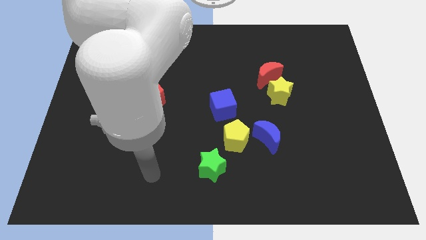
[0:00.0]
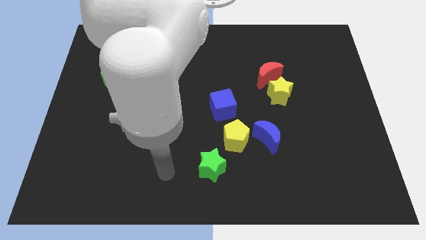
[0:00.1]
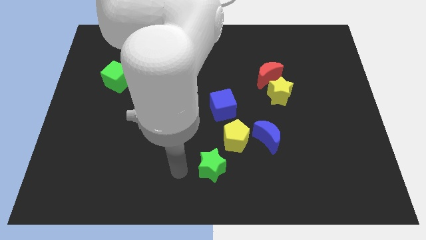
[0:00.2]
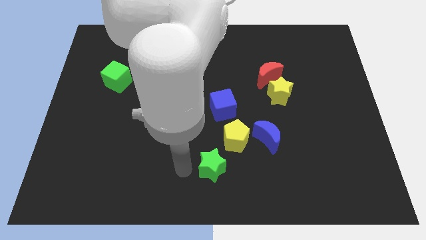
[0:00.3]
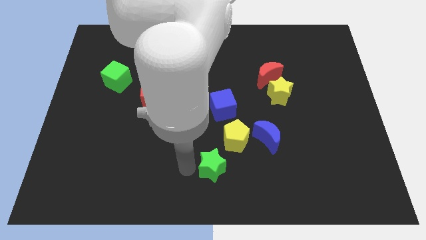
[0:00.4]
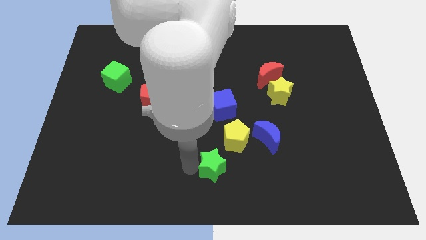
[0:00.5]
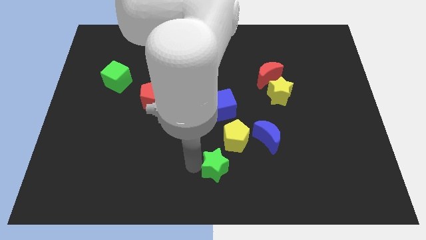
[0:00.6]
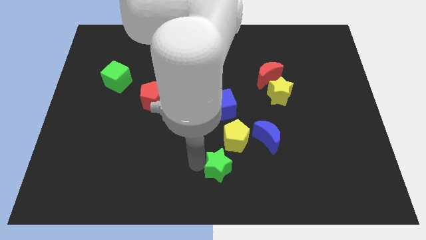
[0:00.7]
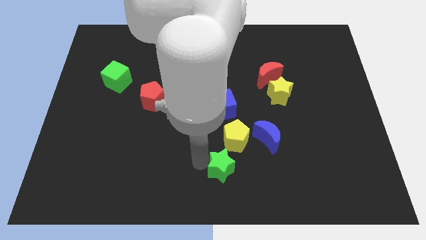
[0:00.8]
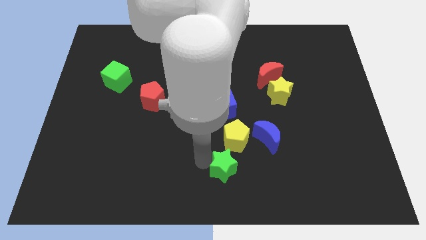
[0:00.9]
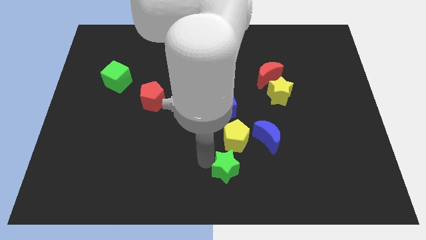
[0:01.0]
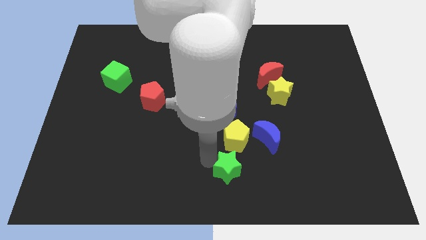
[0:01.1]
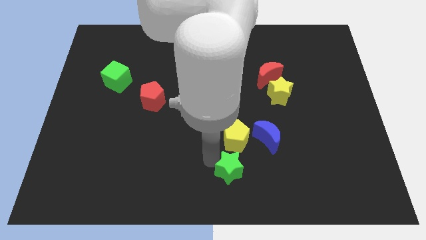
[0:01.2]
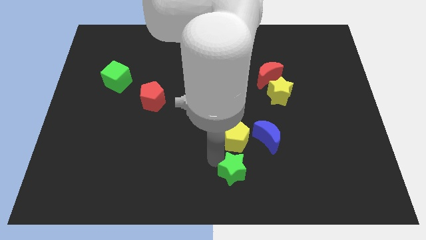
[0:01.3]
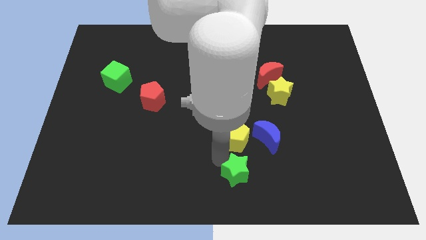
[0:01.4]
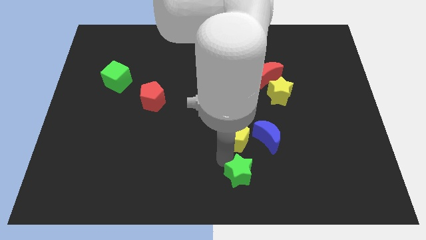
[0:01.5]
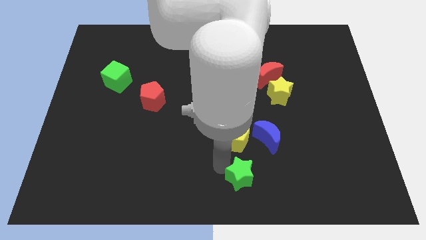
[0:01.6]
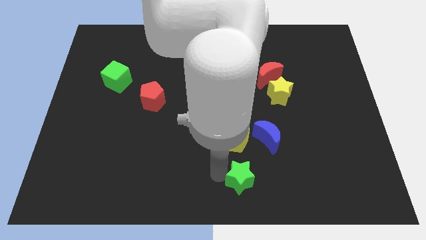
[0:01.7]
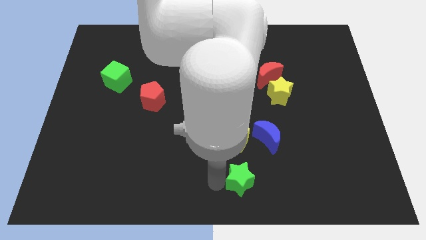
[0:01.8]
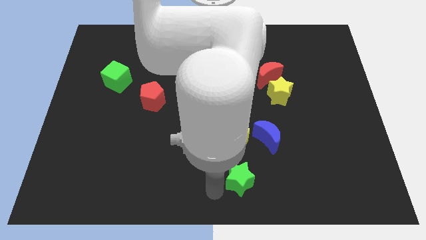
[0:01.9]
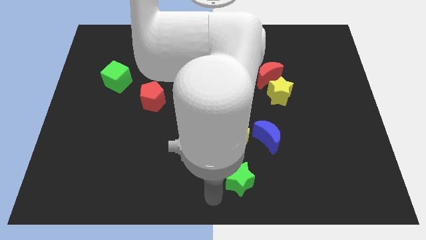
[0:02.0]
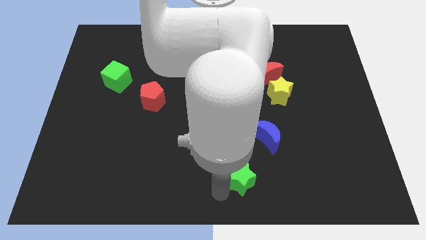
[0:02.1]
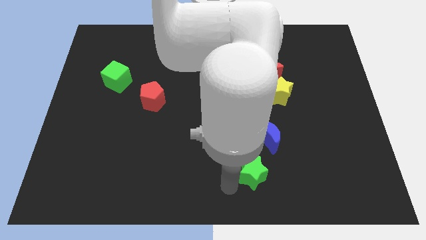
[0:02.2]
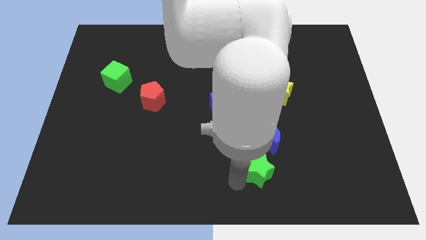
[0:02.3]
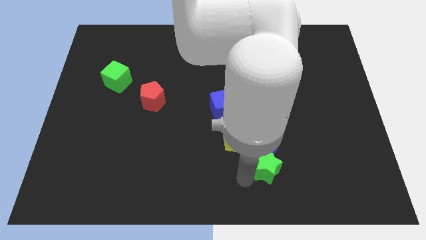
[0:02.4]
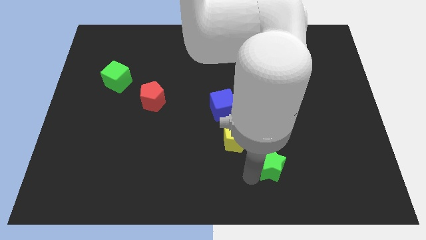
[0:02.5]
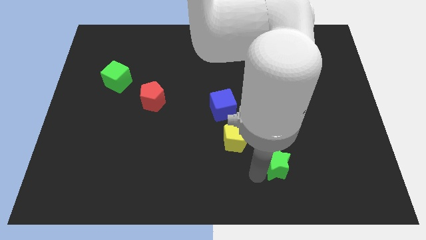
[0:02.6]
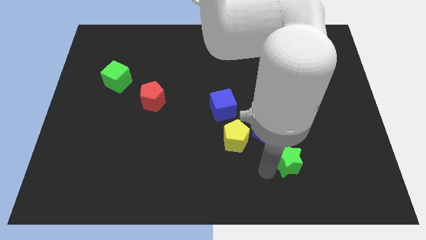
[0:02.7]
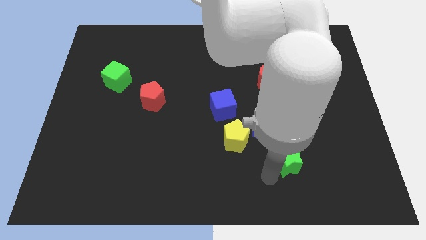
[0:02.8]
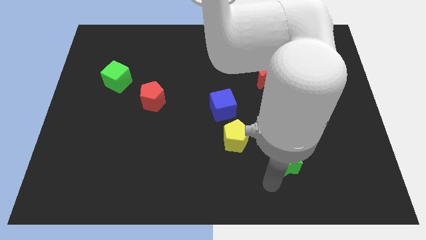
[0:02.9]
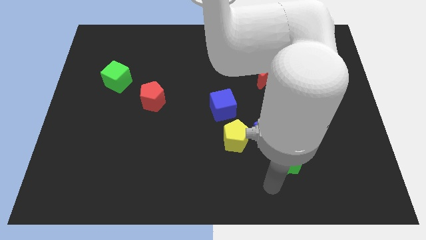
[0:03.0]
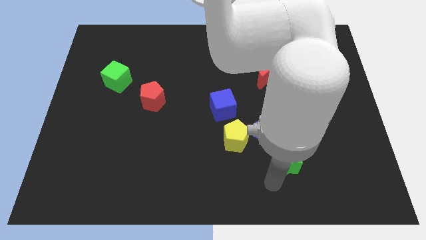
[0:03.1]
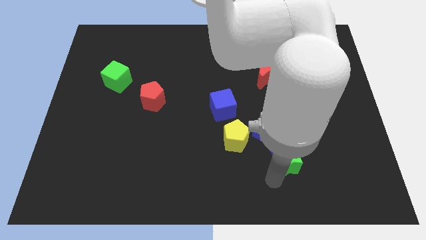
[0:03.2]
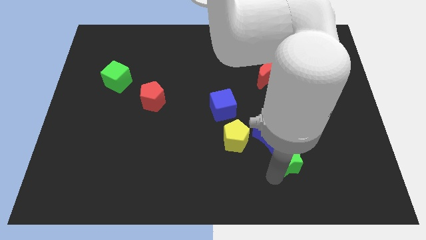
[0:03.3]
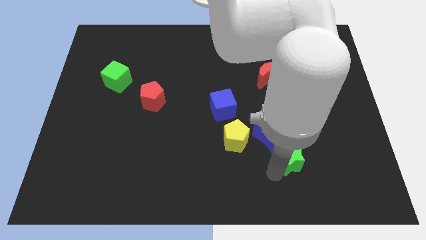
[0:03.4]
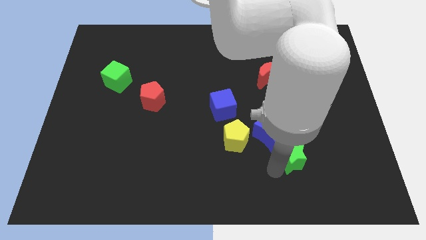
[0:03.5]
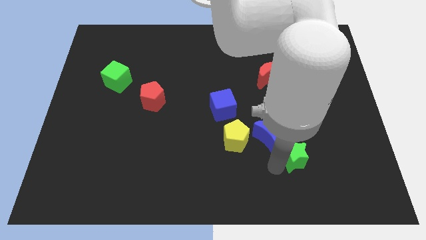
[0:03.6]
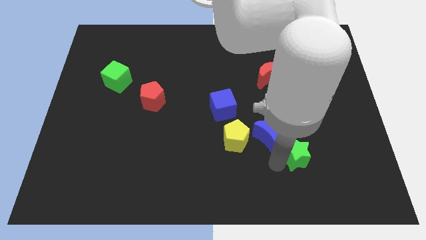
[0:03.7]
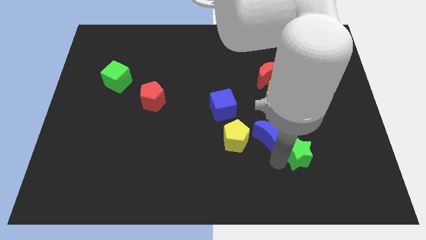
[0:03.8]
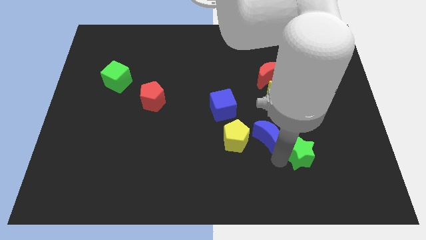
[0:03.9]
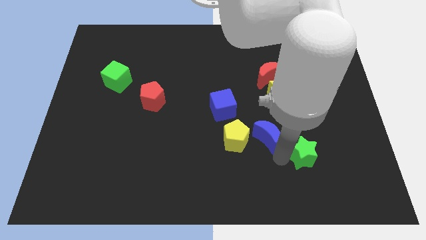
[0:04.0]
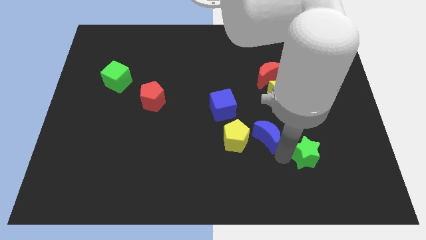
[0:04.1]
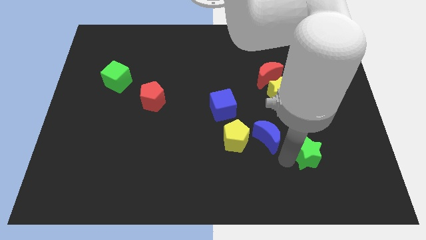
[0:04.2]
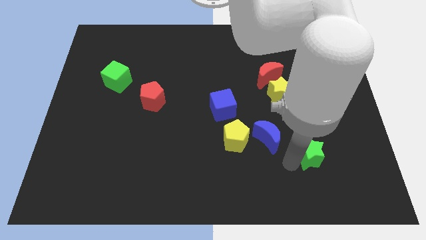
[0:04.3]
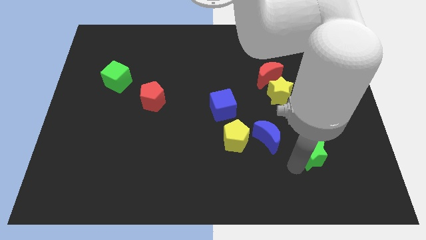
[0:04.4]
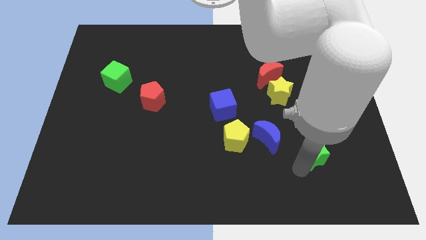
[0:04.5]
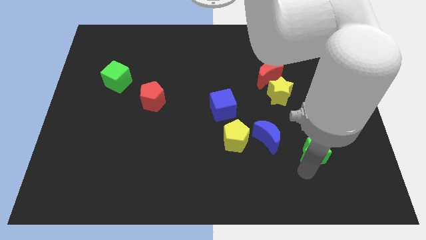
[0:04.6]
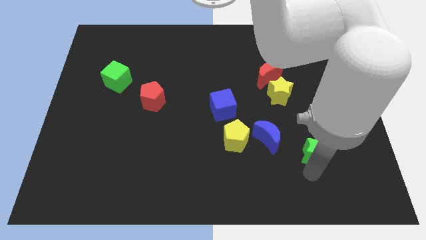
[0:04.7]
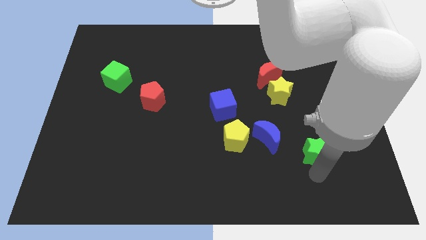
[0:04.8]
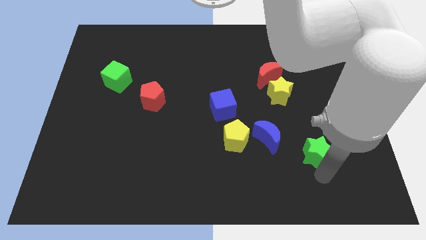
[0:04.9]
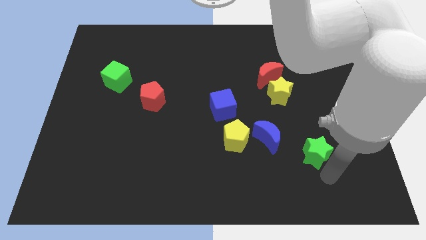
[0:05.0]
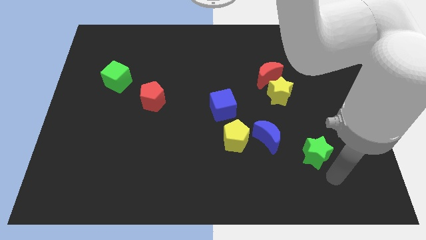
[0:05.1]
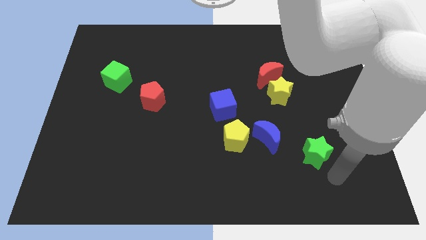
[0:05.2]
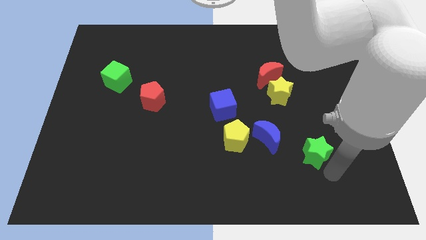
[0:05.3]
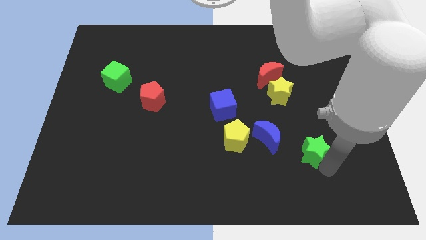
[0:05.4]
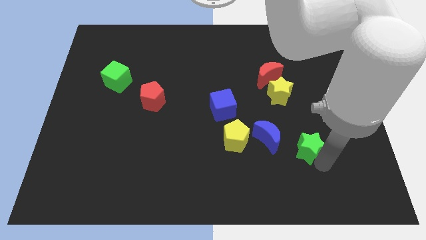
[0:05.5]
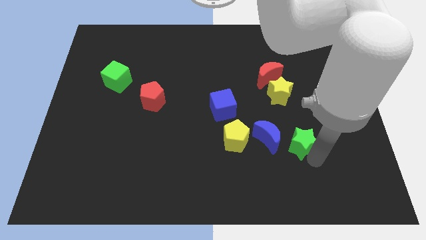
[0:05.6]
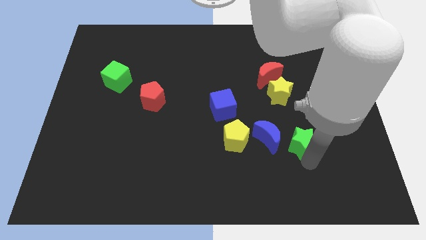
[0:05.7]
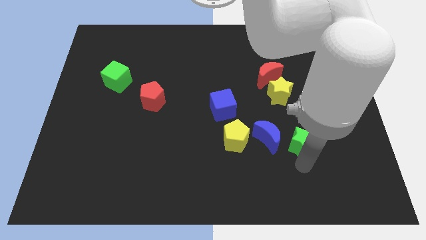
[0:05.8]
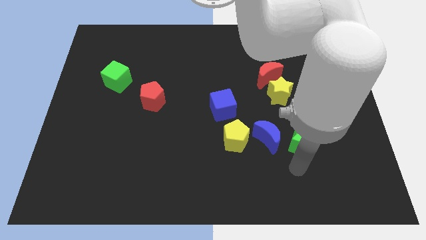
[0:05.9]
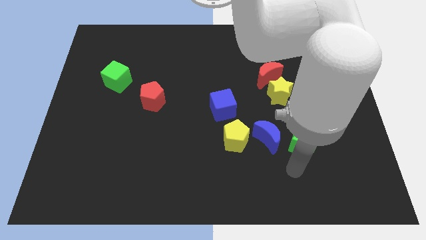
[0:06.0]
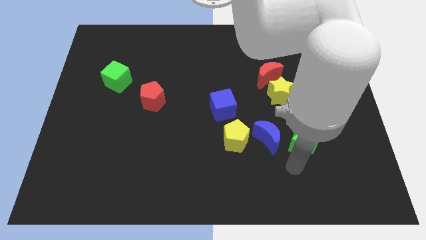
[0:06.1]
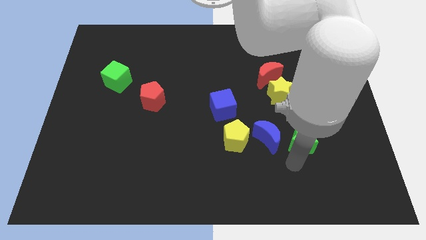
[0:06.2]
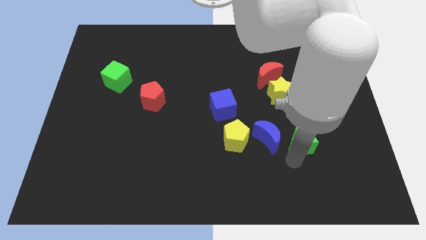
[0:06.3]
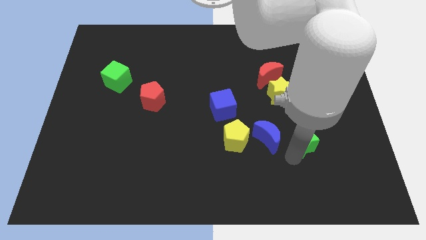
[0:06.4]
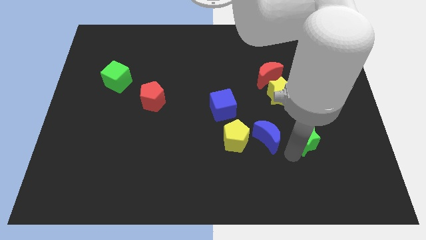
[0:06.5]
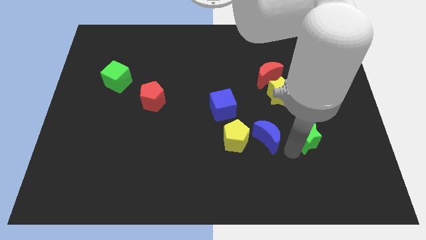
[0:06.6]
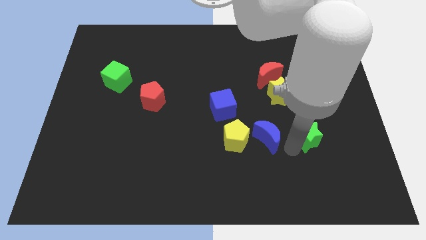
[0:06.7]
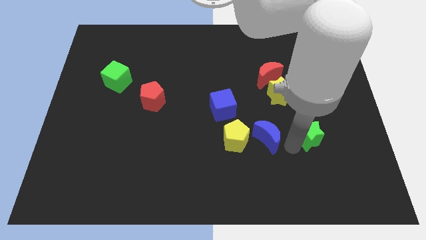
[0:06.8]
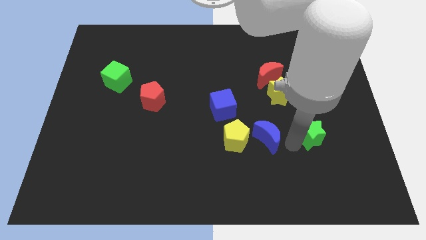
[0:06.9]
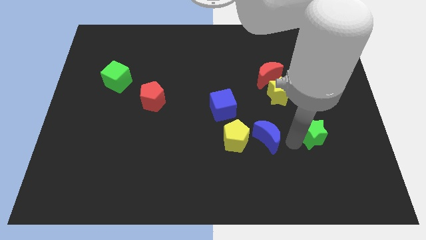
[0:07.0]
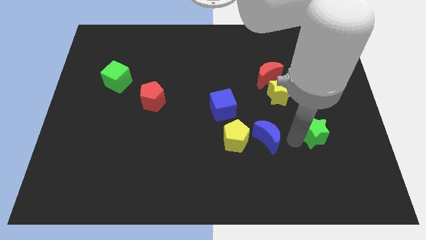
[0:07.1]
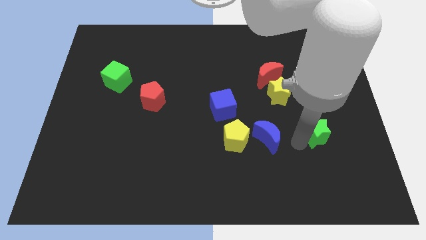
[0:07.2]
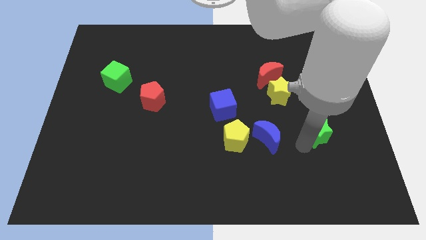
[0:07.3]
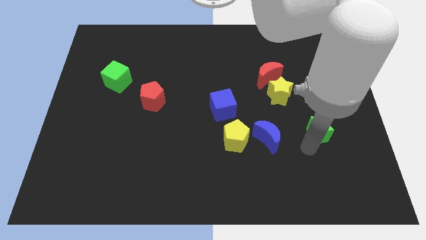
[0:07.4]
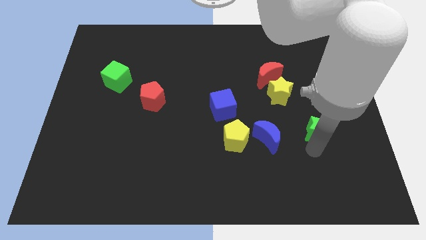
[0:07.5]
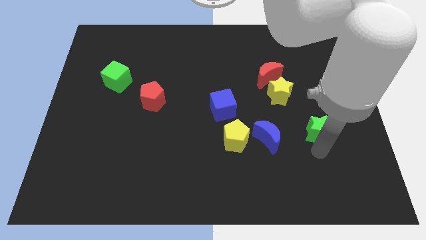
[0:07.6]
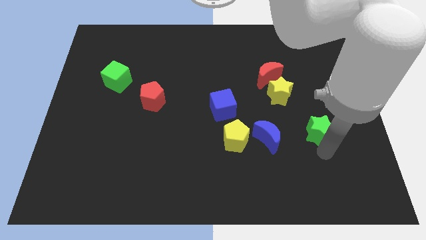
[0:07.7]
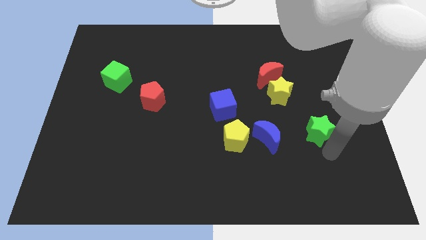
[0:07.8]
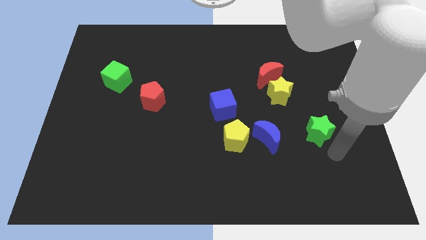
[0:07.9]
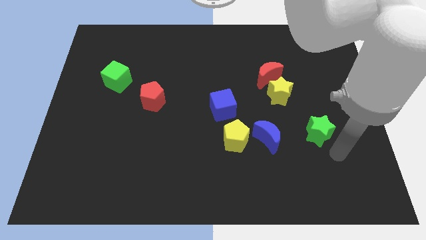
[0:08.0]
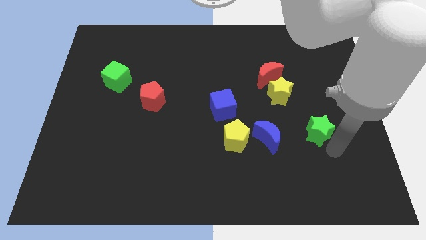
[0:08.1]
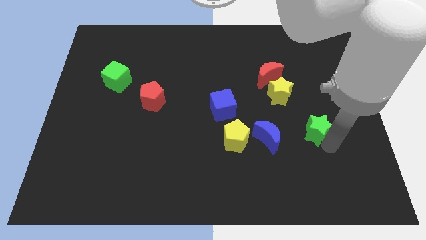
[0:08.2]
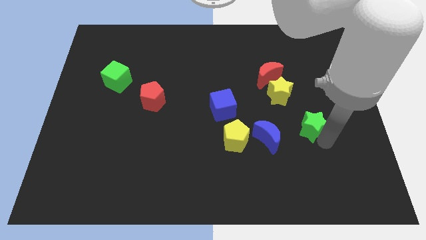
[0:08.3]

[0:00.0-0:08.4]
slide the green star diagonally down and to the right of the yellow star
